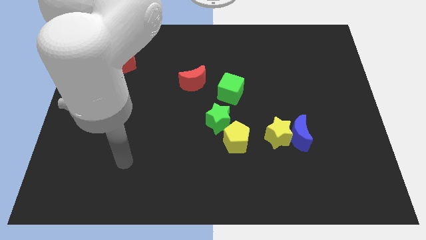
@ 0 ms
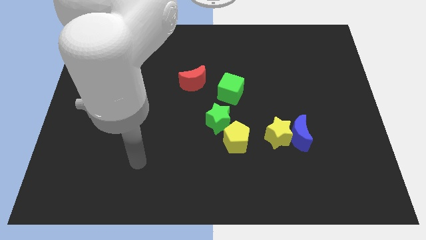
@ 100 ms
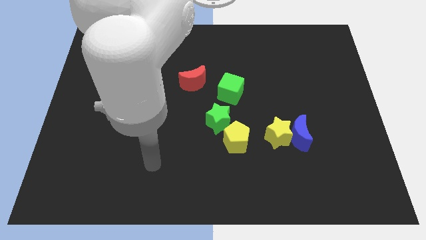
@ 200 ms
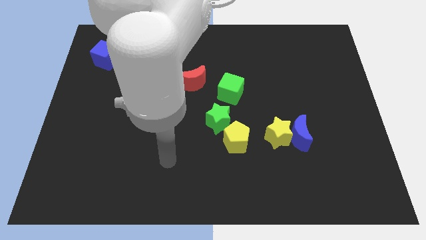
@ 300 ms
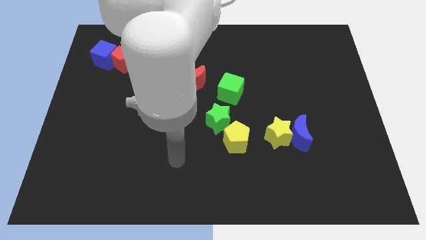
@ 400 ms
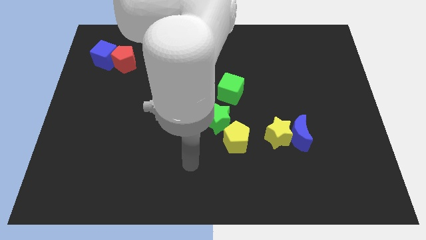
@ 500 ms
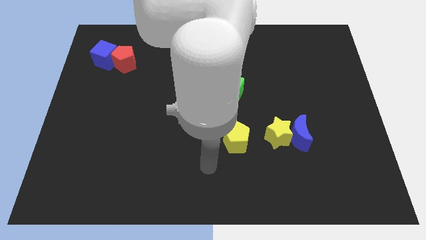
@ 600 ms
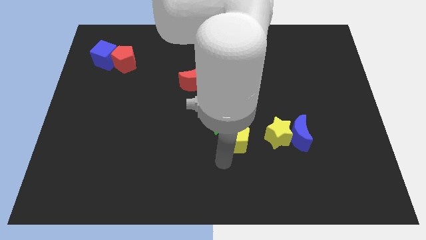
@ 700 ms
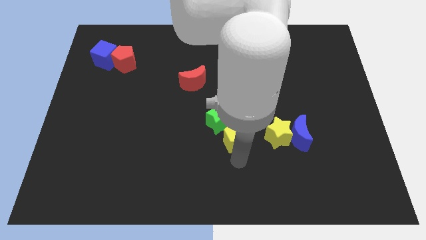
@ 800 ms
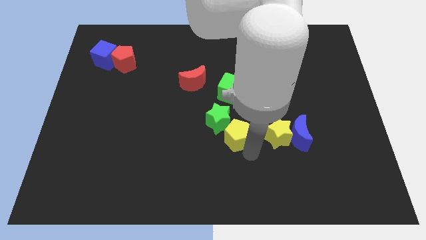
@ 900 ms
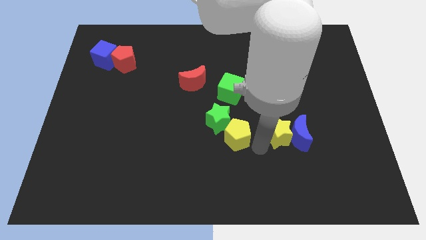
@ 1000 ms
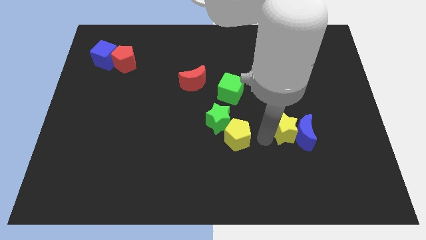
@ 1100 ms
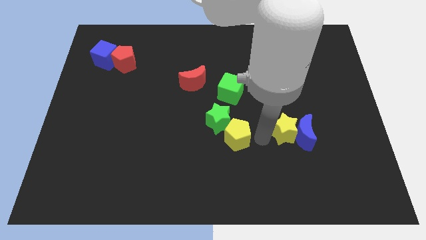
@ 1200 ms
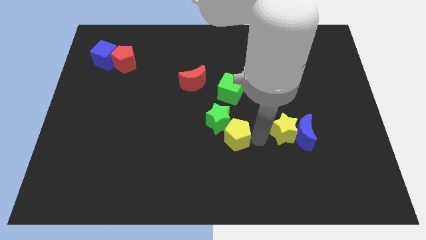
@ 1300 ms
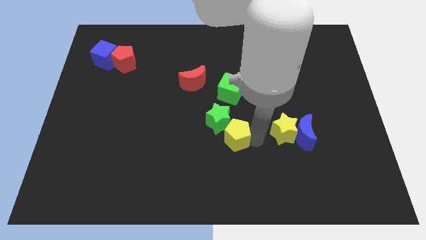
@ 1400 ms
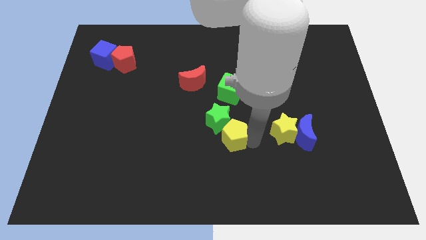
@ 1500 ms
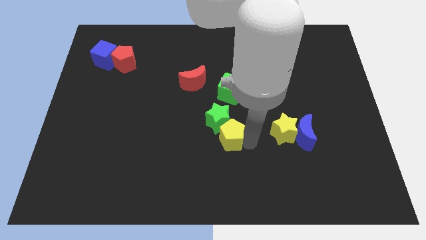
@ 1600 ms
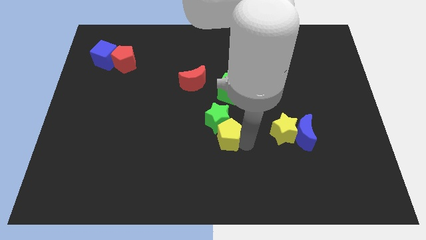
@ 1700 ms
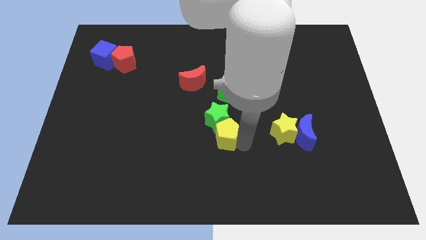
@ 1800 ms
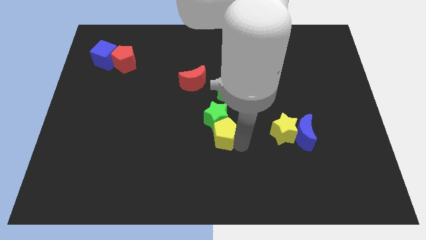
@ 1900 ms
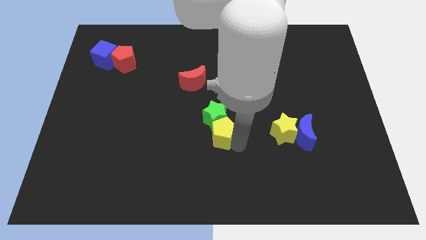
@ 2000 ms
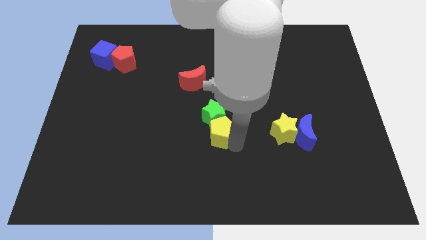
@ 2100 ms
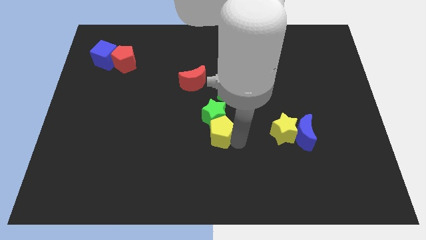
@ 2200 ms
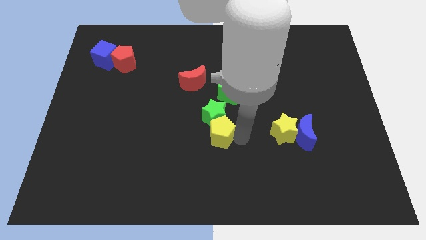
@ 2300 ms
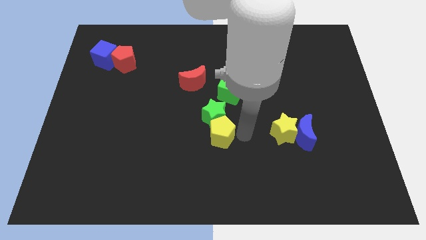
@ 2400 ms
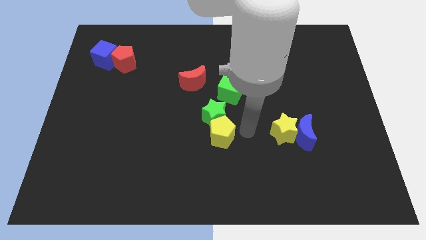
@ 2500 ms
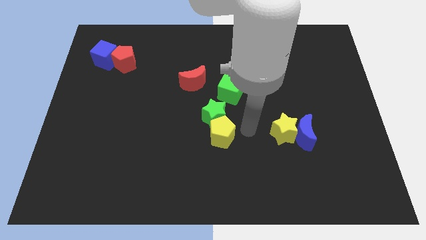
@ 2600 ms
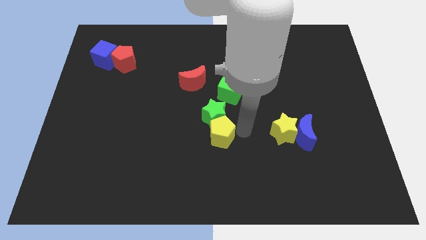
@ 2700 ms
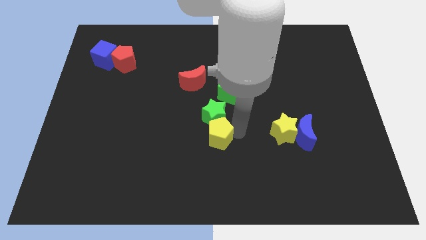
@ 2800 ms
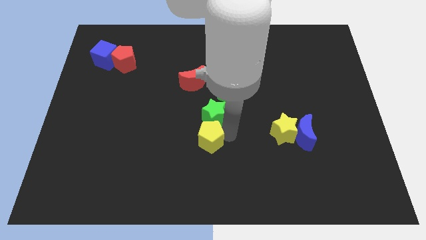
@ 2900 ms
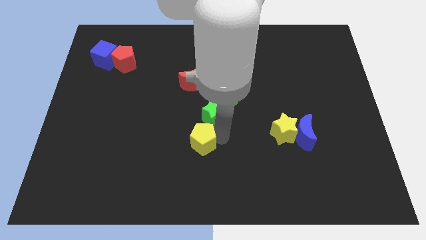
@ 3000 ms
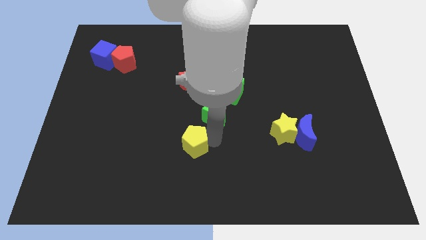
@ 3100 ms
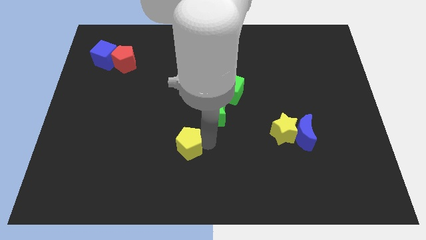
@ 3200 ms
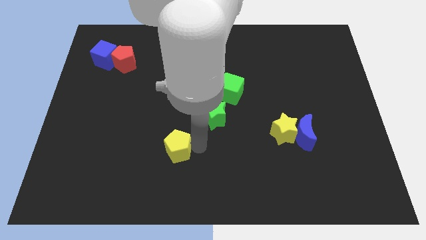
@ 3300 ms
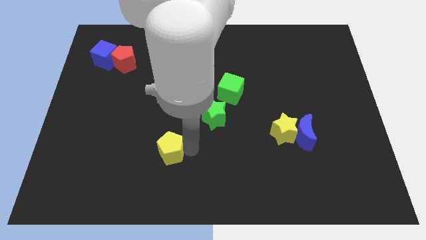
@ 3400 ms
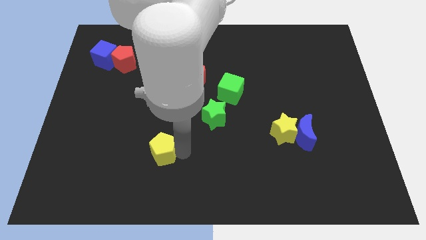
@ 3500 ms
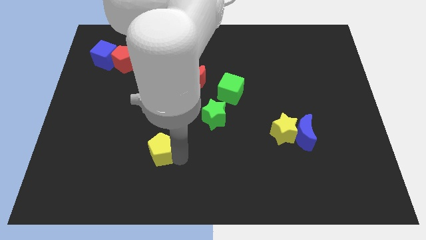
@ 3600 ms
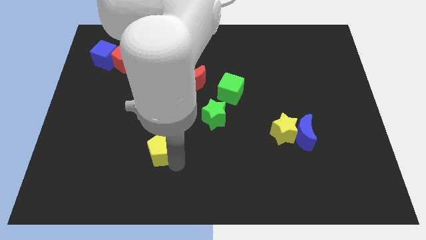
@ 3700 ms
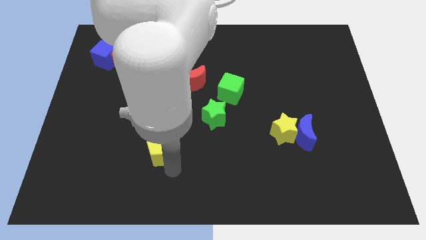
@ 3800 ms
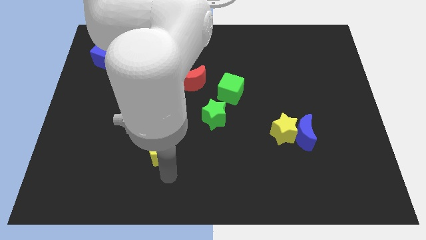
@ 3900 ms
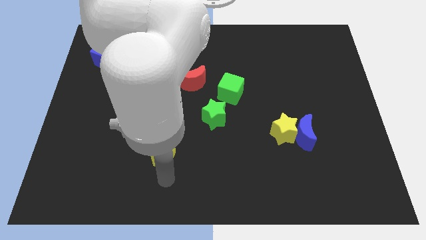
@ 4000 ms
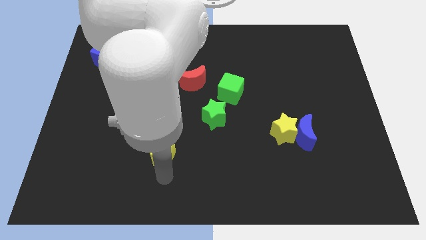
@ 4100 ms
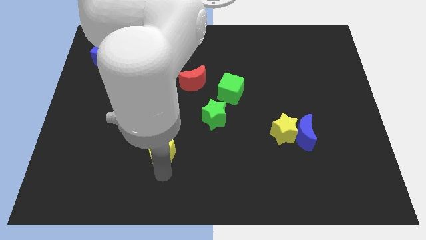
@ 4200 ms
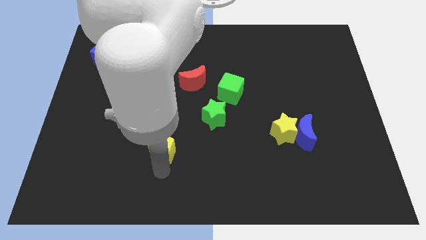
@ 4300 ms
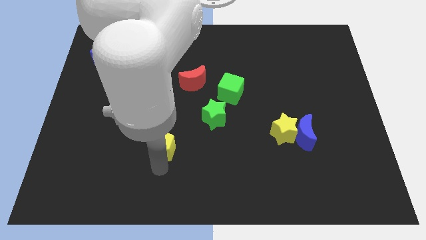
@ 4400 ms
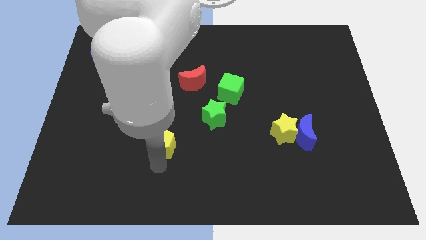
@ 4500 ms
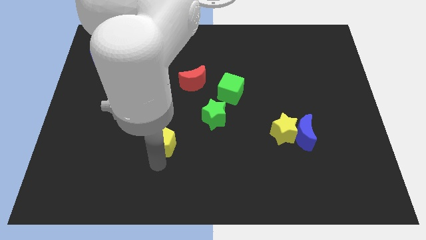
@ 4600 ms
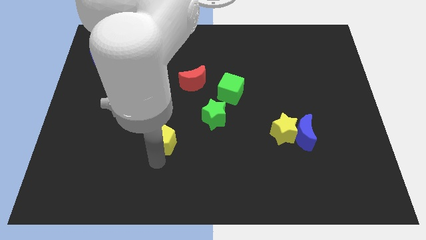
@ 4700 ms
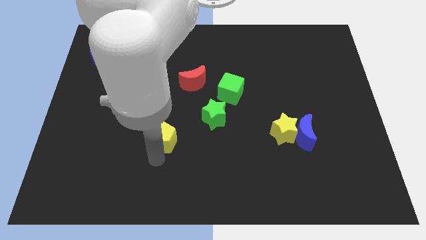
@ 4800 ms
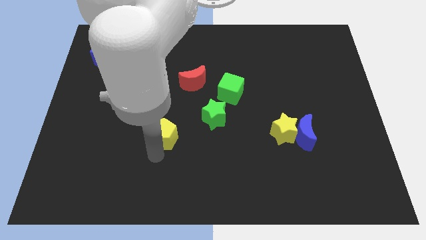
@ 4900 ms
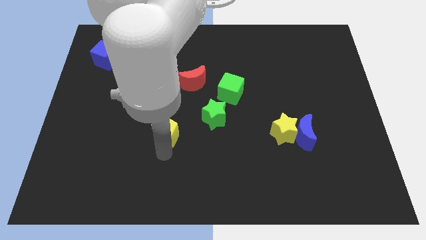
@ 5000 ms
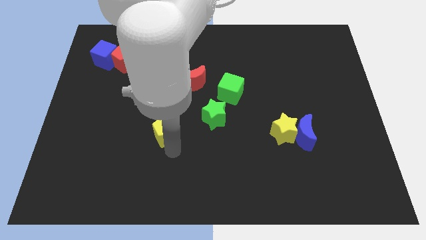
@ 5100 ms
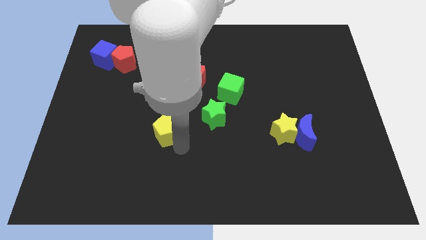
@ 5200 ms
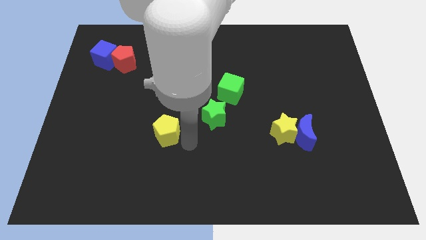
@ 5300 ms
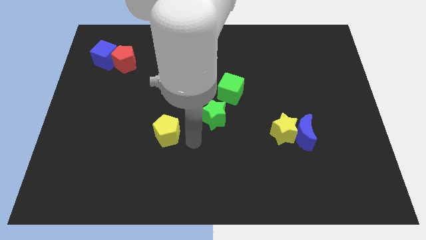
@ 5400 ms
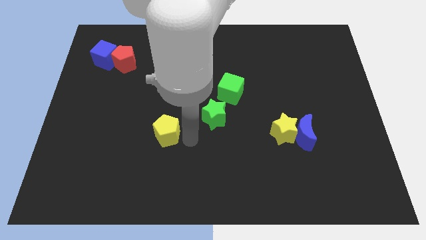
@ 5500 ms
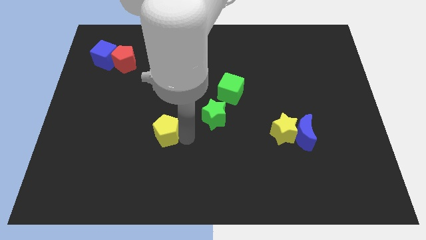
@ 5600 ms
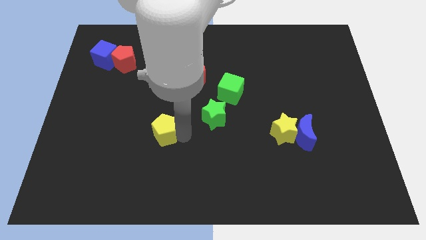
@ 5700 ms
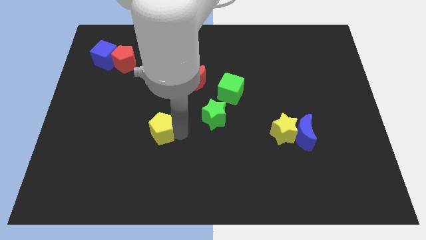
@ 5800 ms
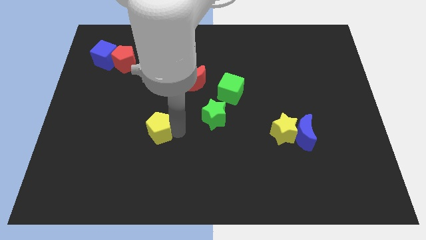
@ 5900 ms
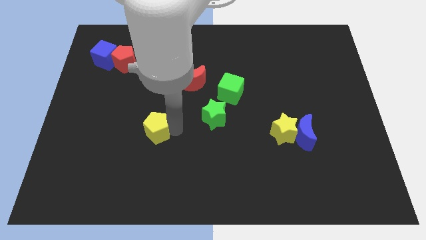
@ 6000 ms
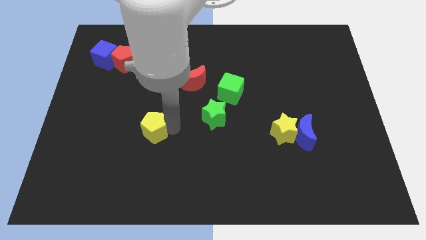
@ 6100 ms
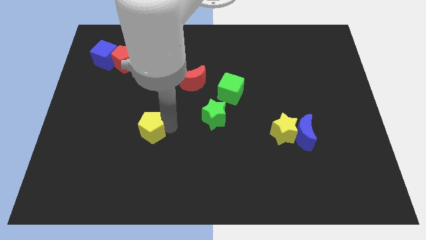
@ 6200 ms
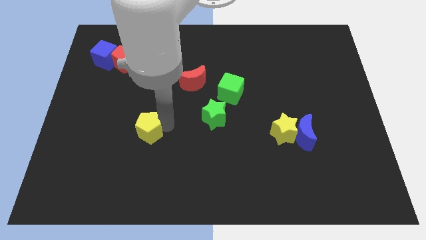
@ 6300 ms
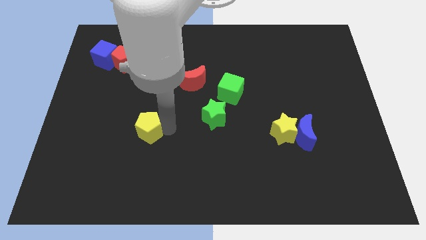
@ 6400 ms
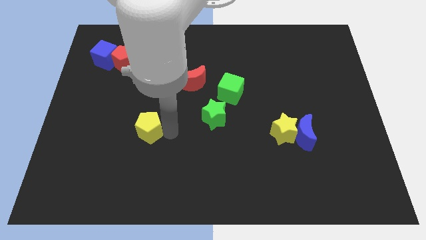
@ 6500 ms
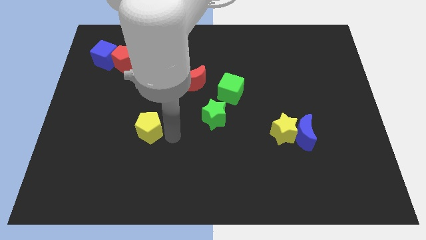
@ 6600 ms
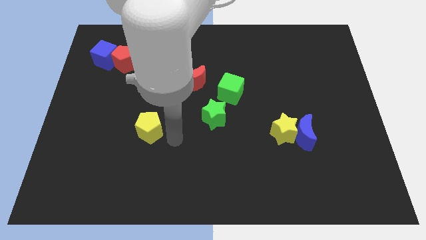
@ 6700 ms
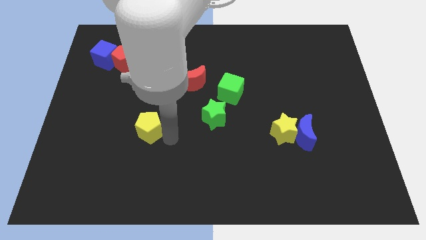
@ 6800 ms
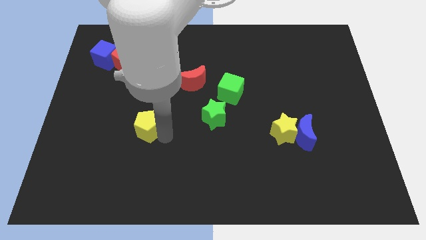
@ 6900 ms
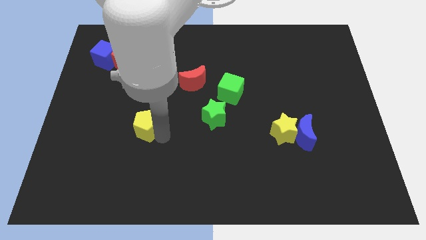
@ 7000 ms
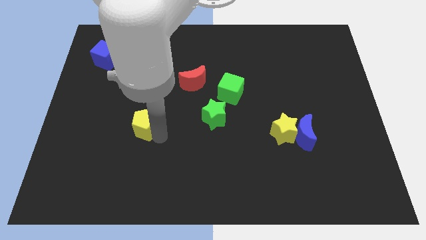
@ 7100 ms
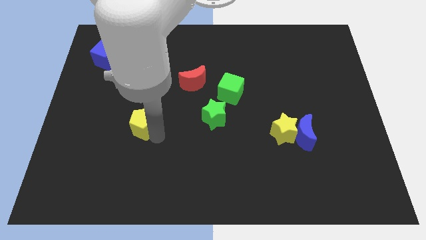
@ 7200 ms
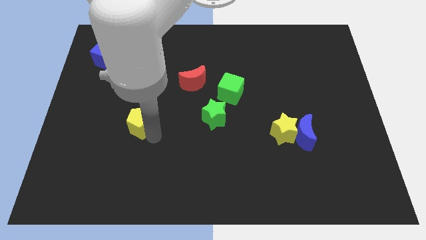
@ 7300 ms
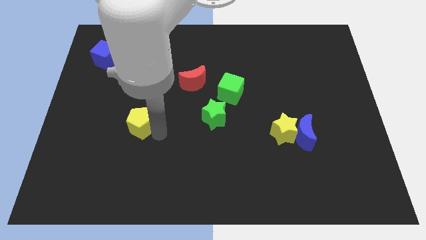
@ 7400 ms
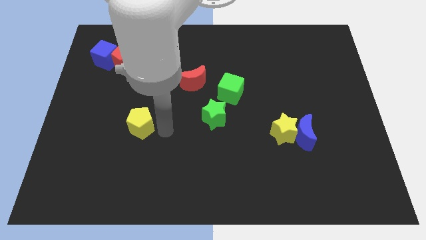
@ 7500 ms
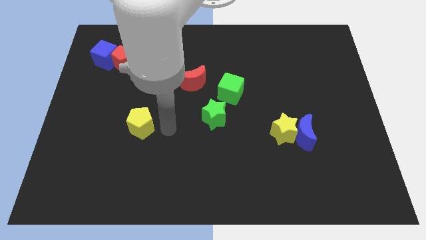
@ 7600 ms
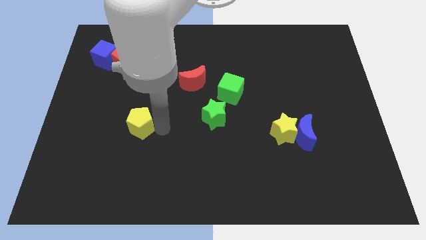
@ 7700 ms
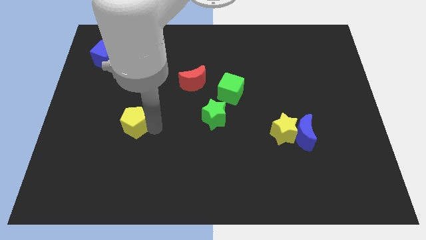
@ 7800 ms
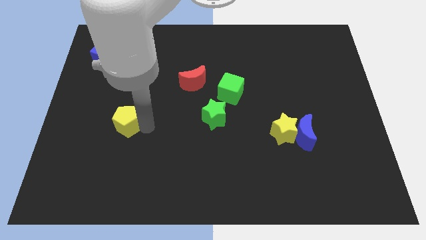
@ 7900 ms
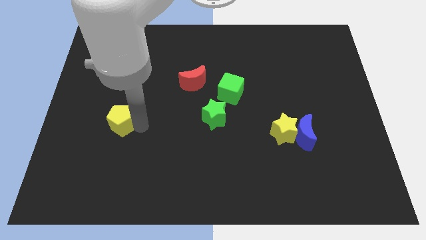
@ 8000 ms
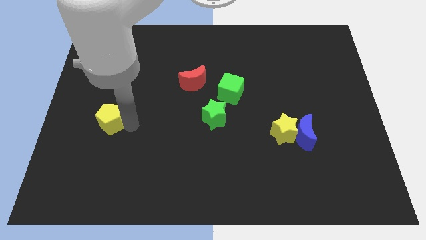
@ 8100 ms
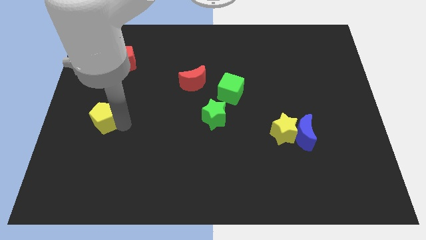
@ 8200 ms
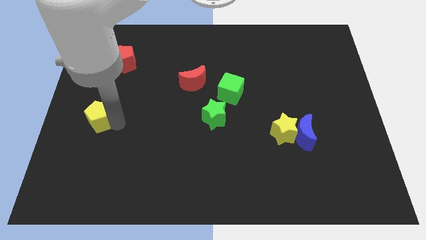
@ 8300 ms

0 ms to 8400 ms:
put the yellow pentagon to the left side of the board
